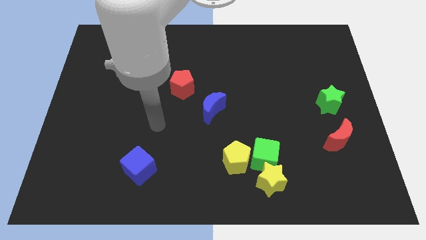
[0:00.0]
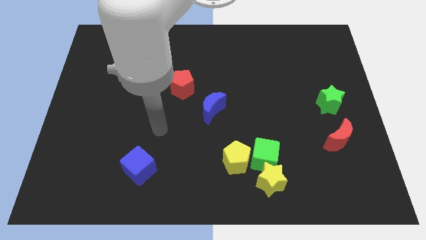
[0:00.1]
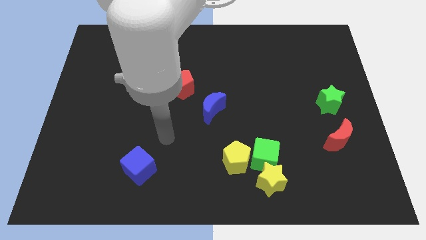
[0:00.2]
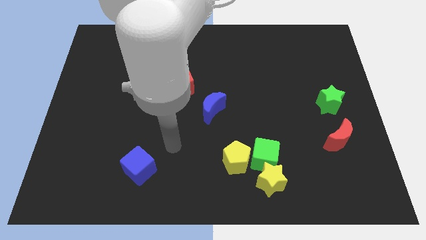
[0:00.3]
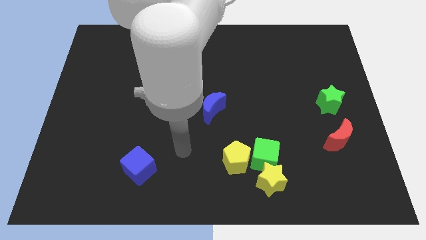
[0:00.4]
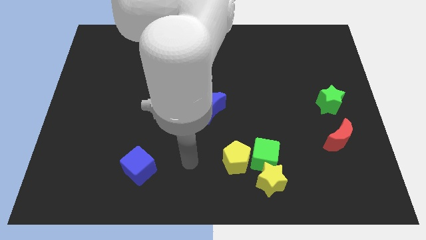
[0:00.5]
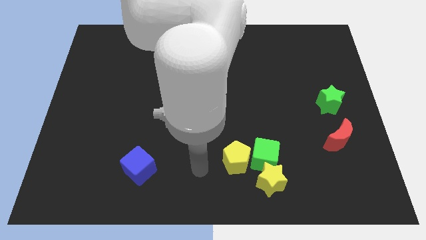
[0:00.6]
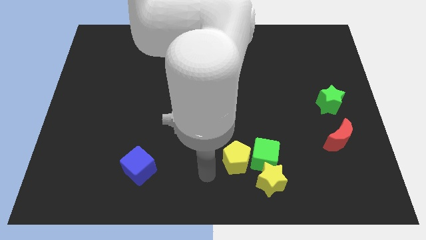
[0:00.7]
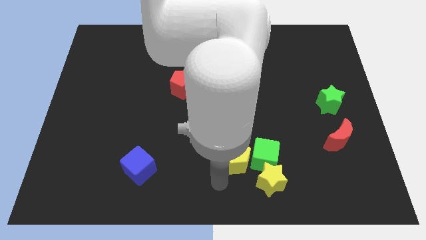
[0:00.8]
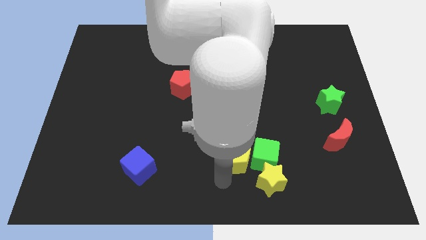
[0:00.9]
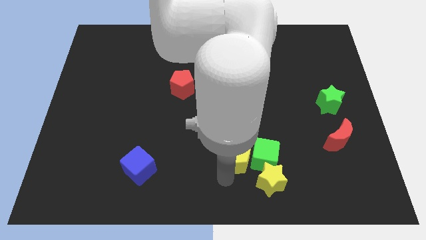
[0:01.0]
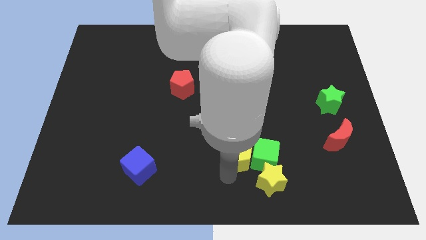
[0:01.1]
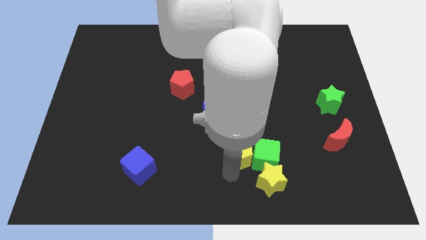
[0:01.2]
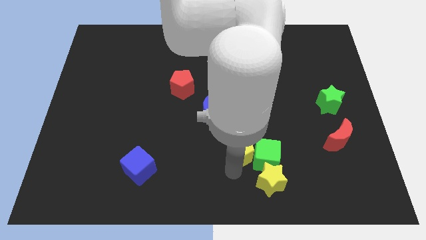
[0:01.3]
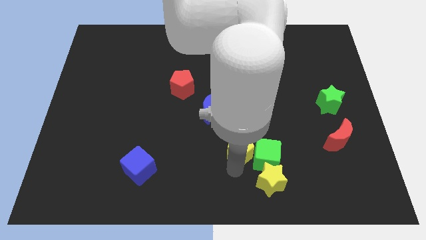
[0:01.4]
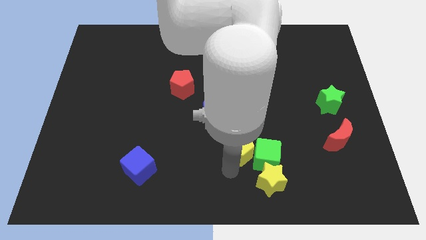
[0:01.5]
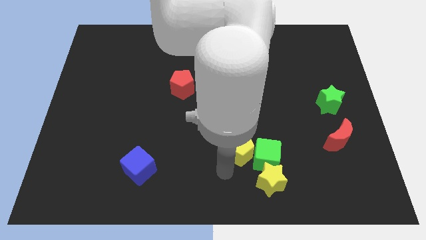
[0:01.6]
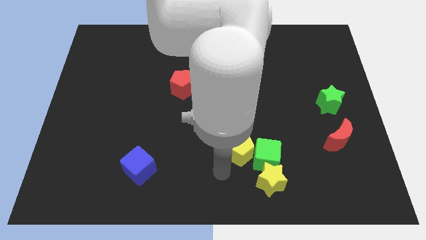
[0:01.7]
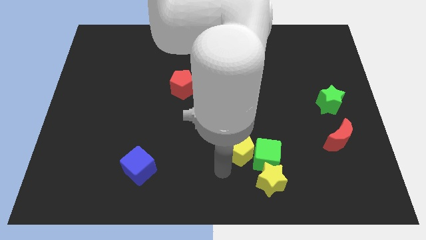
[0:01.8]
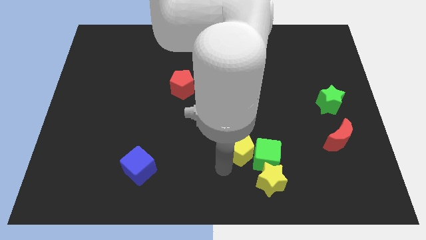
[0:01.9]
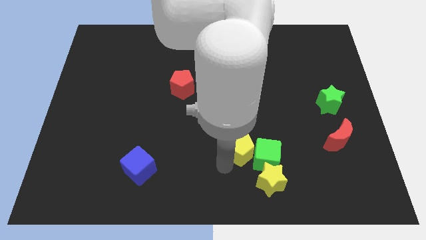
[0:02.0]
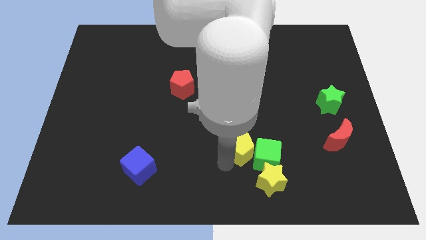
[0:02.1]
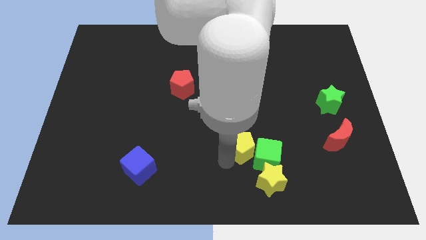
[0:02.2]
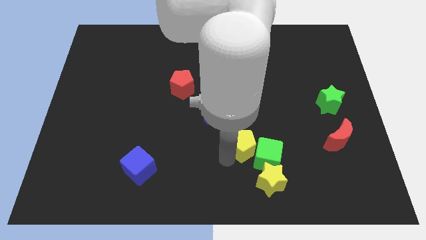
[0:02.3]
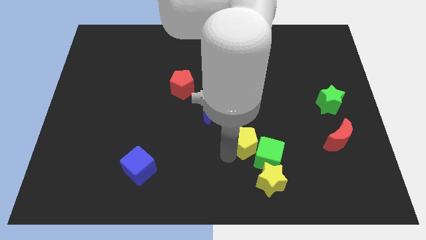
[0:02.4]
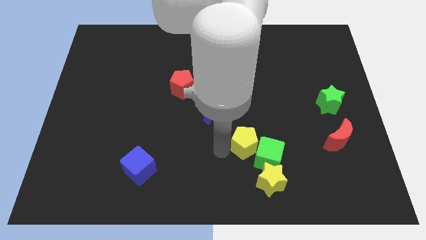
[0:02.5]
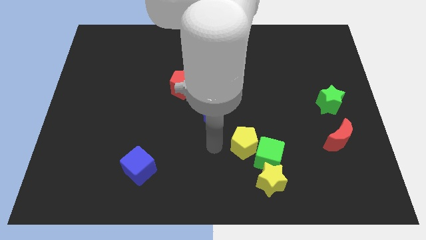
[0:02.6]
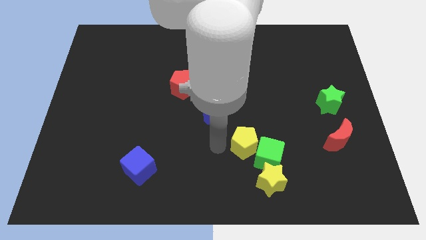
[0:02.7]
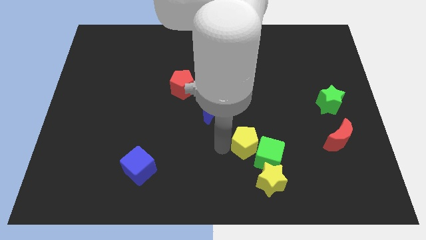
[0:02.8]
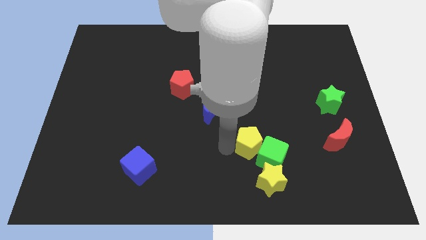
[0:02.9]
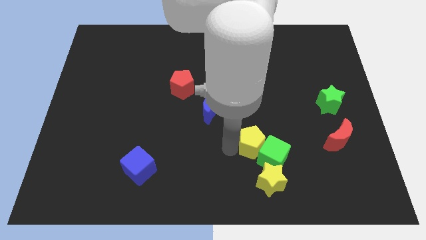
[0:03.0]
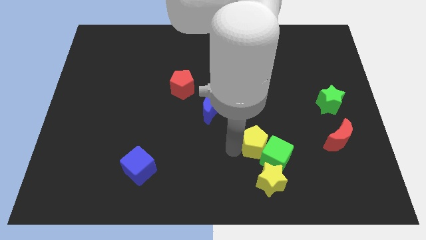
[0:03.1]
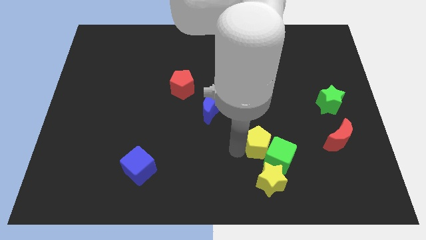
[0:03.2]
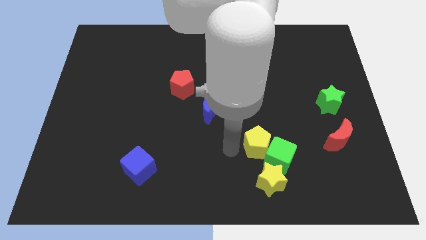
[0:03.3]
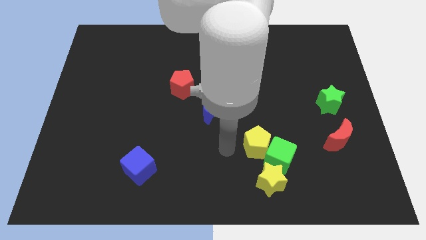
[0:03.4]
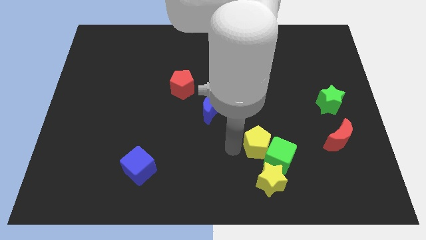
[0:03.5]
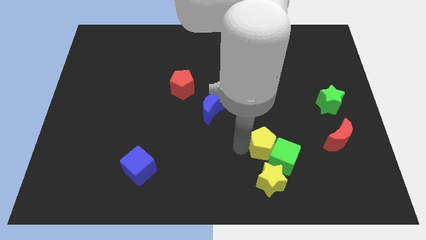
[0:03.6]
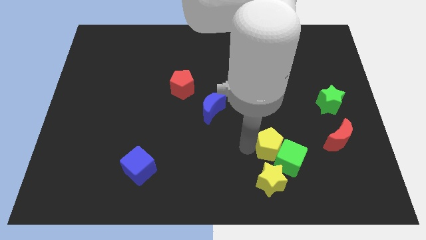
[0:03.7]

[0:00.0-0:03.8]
push the yellow pentagon somewhat to the right

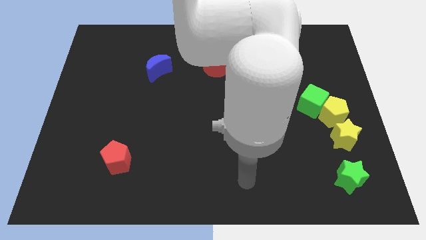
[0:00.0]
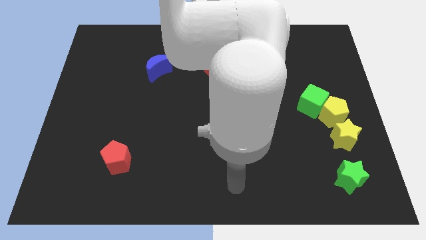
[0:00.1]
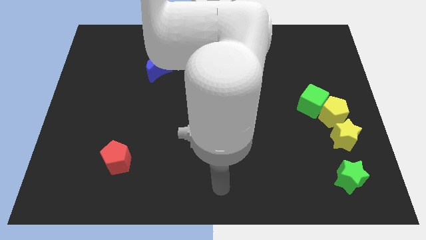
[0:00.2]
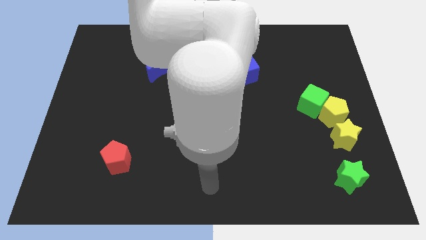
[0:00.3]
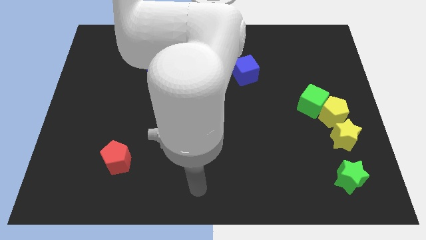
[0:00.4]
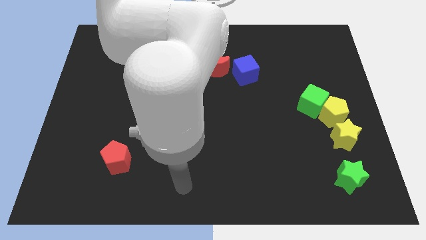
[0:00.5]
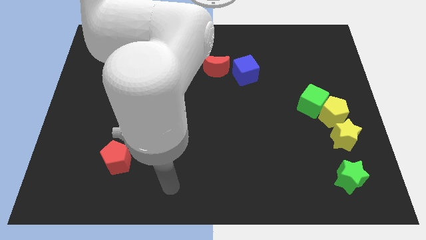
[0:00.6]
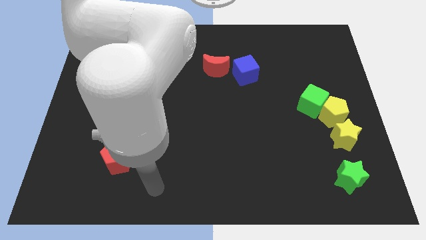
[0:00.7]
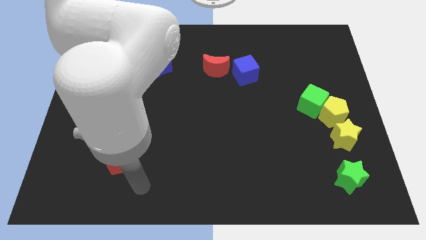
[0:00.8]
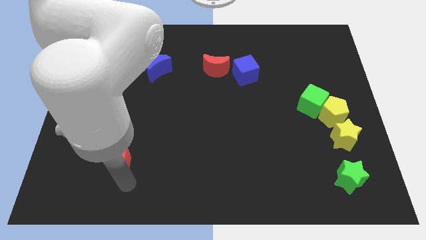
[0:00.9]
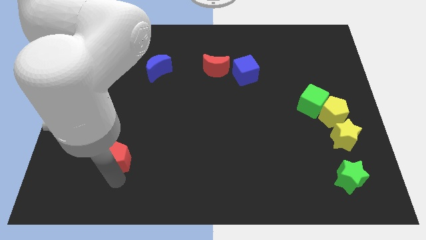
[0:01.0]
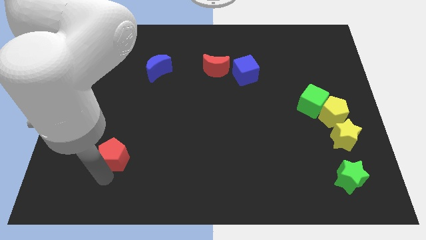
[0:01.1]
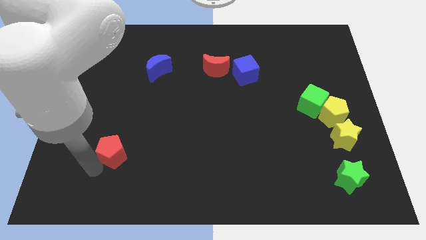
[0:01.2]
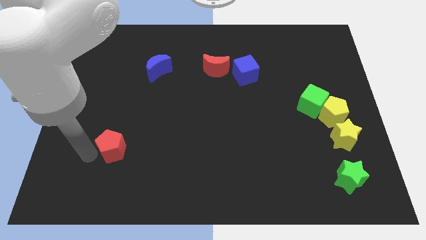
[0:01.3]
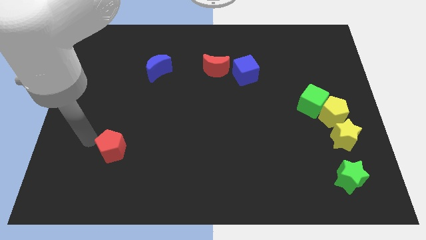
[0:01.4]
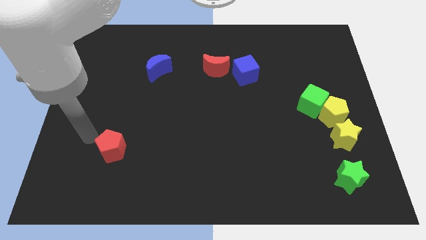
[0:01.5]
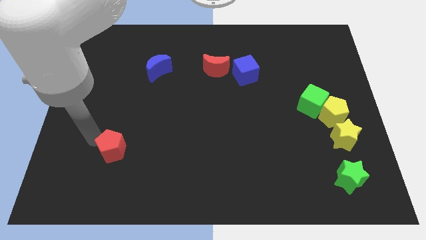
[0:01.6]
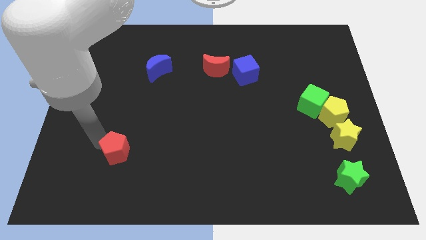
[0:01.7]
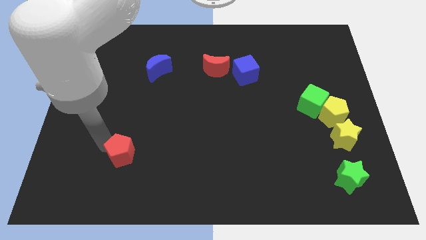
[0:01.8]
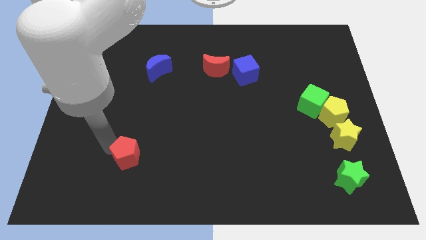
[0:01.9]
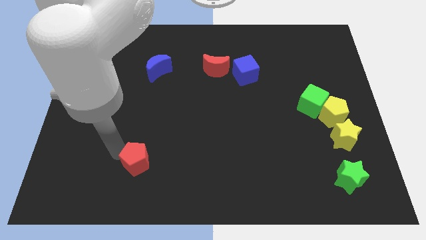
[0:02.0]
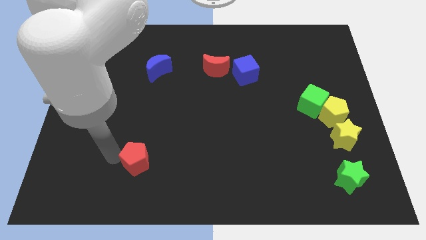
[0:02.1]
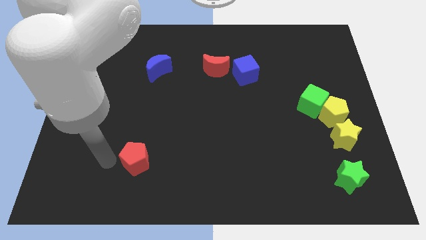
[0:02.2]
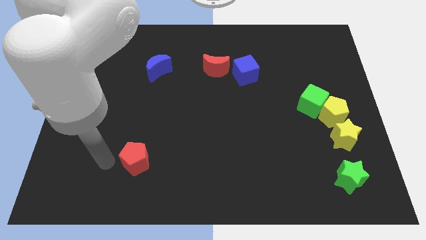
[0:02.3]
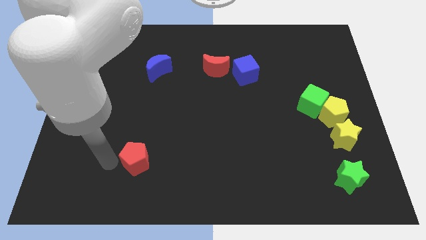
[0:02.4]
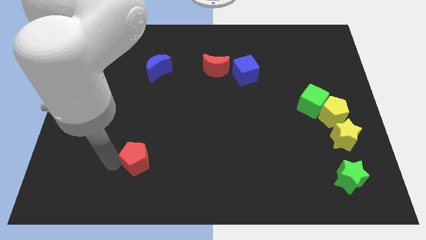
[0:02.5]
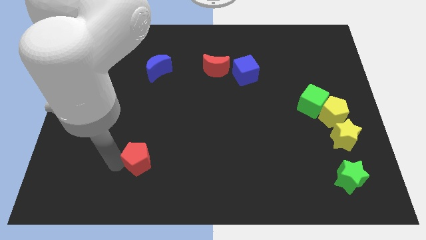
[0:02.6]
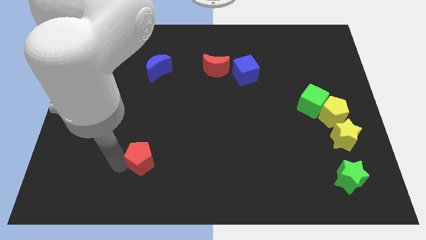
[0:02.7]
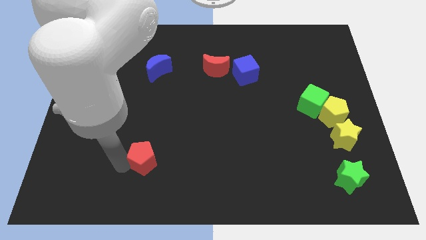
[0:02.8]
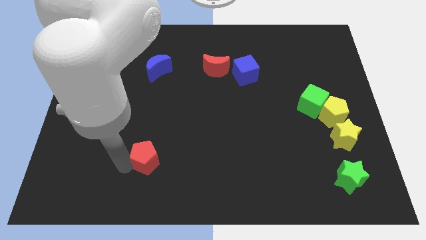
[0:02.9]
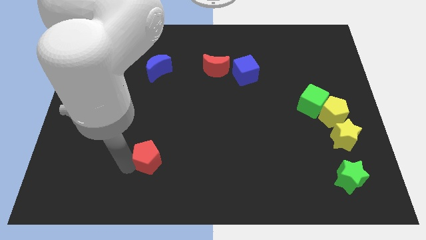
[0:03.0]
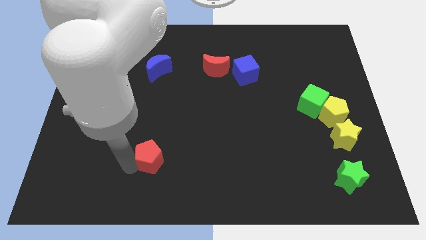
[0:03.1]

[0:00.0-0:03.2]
slightly move the red pentagon right

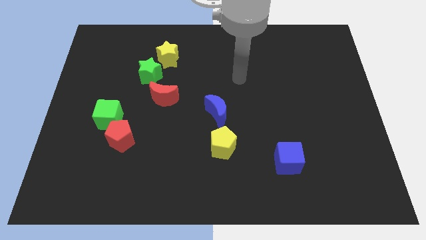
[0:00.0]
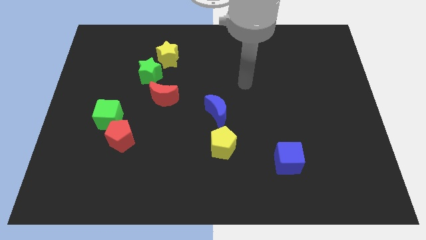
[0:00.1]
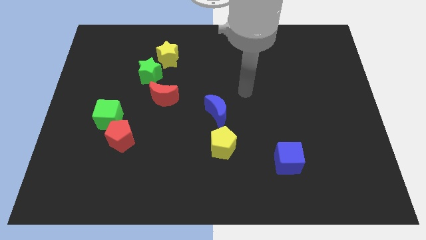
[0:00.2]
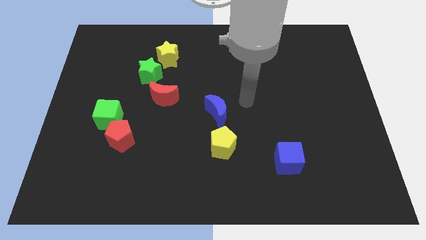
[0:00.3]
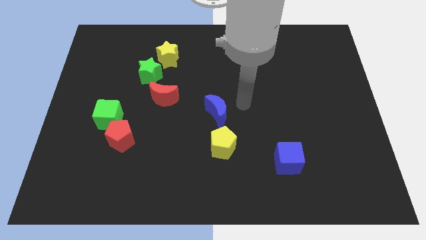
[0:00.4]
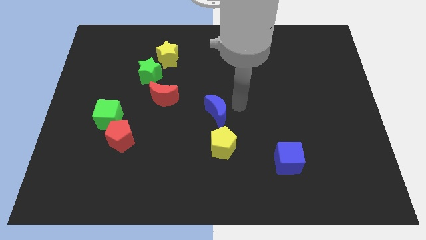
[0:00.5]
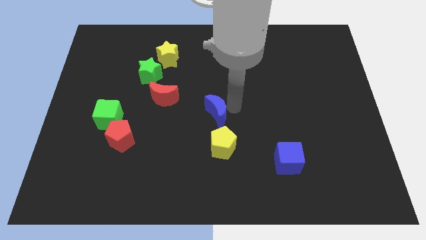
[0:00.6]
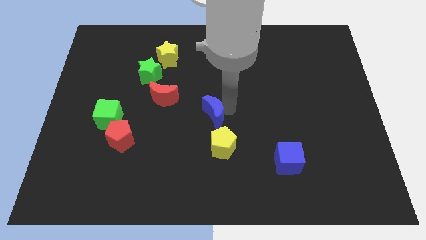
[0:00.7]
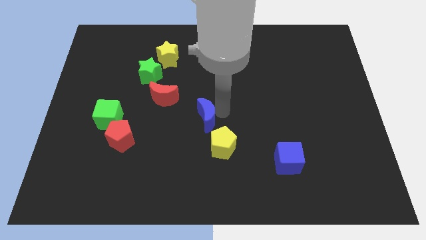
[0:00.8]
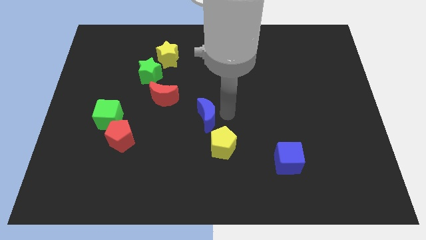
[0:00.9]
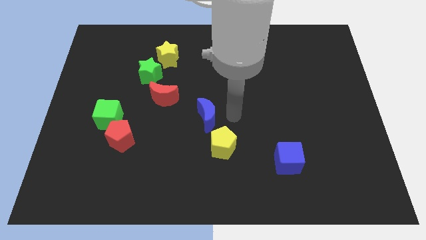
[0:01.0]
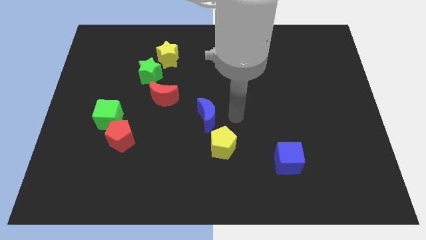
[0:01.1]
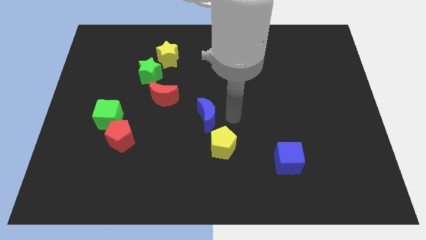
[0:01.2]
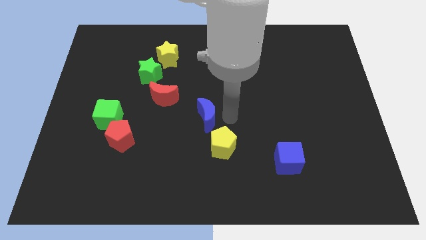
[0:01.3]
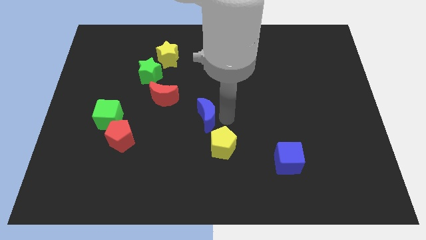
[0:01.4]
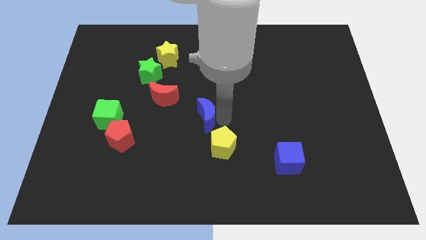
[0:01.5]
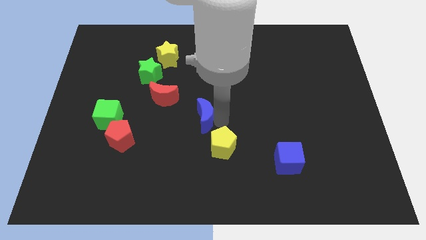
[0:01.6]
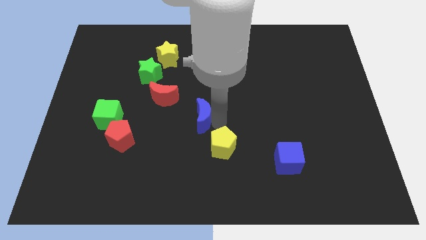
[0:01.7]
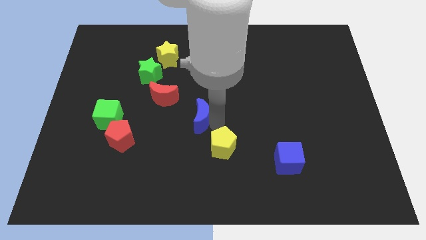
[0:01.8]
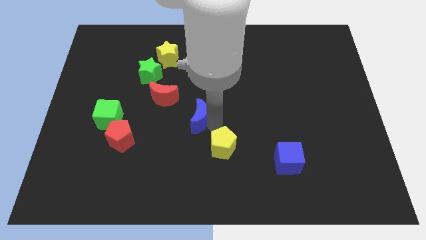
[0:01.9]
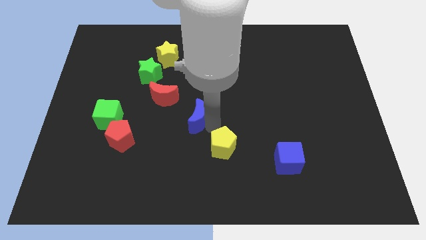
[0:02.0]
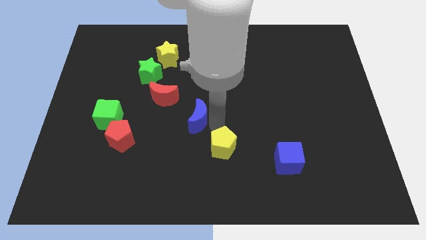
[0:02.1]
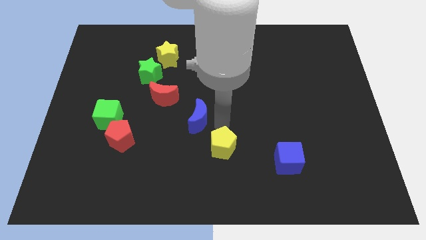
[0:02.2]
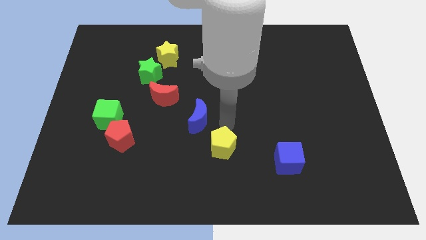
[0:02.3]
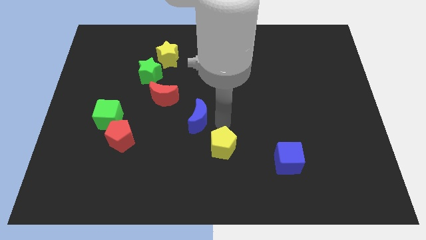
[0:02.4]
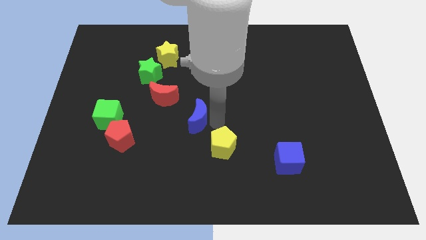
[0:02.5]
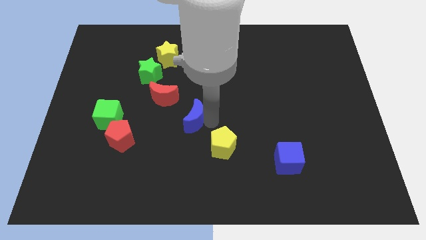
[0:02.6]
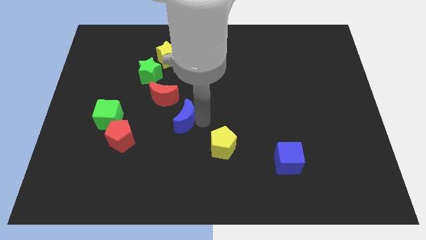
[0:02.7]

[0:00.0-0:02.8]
slide the blue moon left a little
